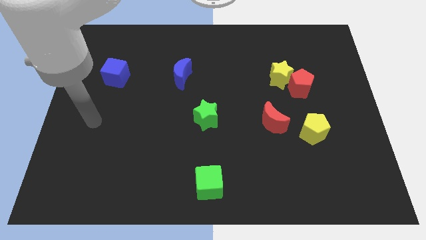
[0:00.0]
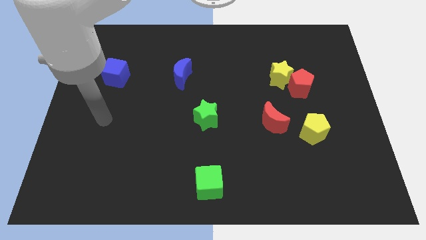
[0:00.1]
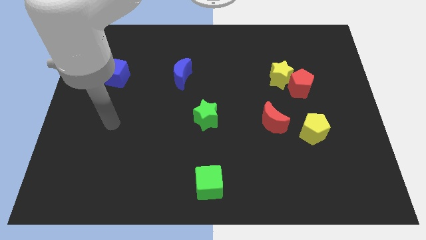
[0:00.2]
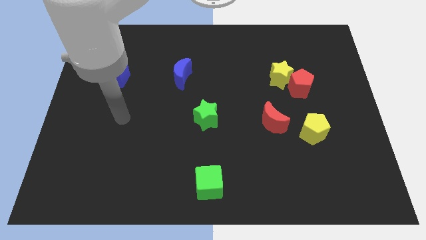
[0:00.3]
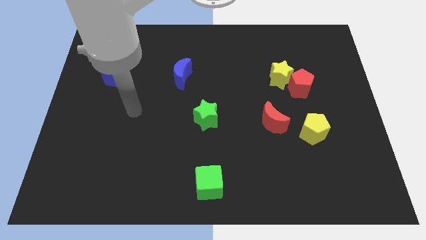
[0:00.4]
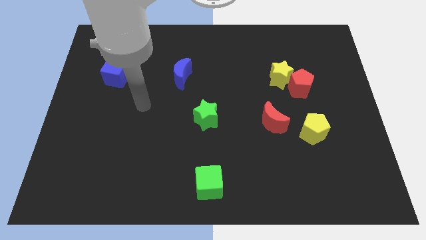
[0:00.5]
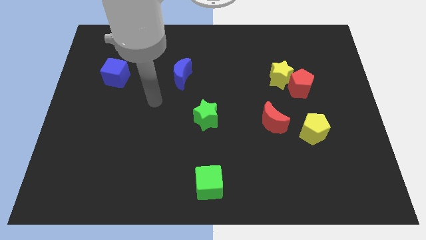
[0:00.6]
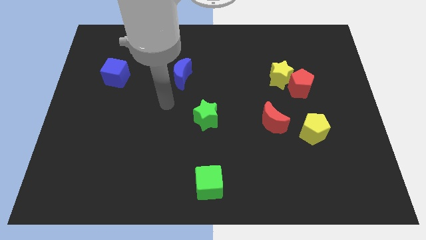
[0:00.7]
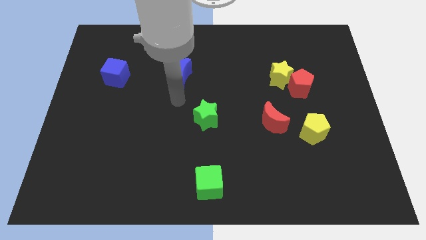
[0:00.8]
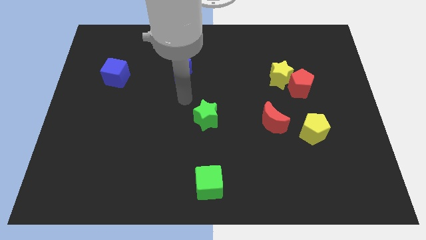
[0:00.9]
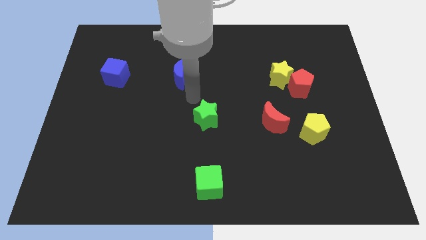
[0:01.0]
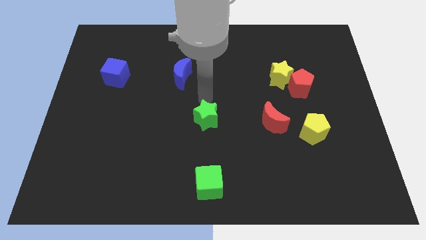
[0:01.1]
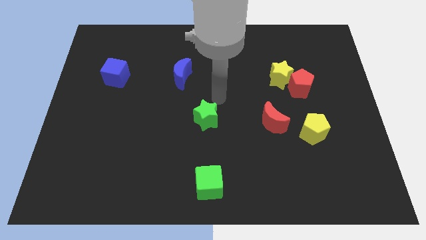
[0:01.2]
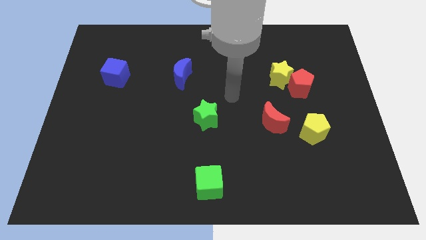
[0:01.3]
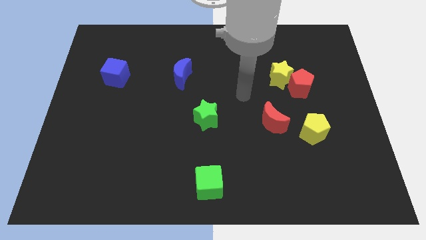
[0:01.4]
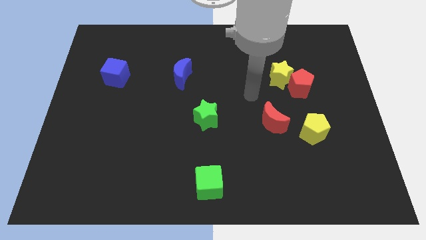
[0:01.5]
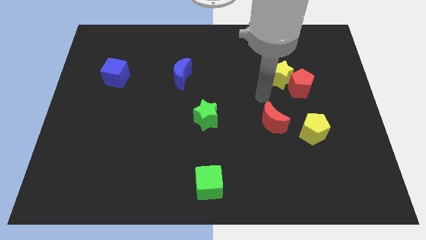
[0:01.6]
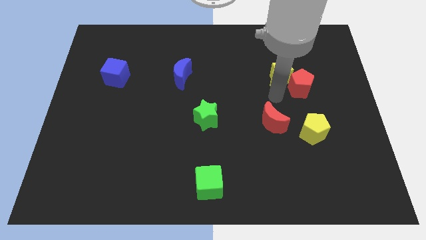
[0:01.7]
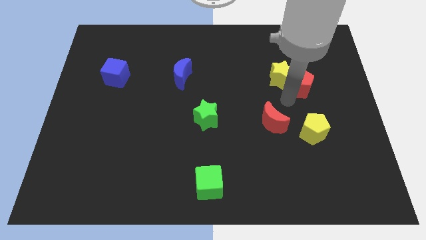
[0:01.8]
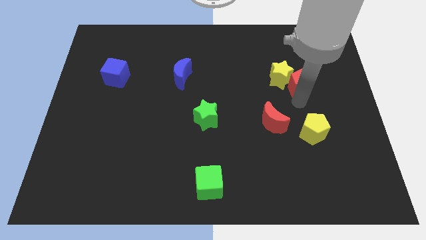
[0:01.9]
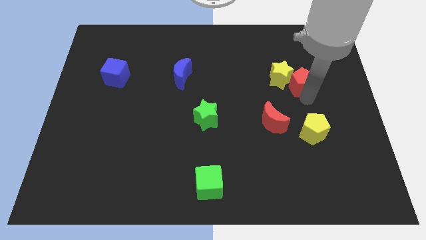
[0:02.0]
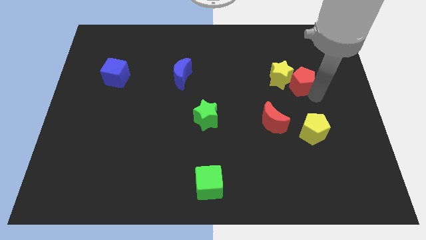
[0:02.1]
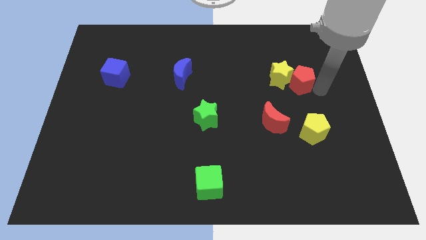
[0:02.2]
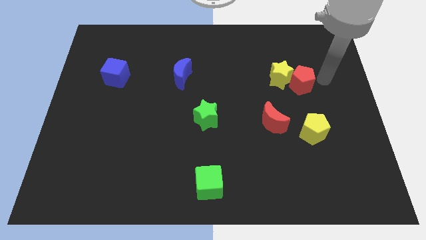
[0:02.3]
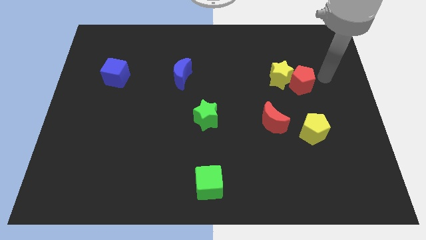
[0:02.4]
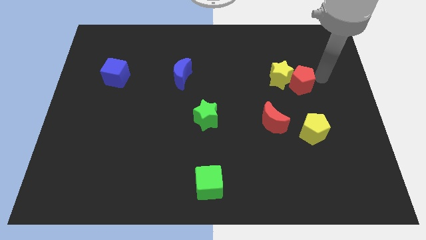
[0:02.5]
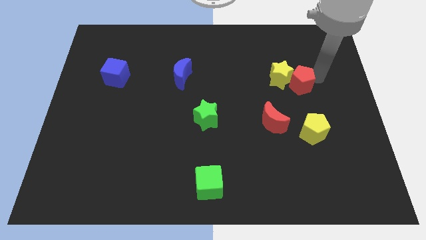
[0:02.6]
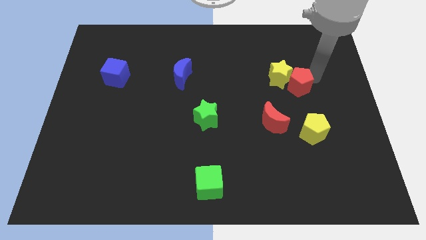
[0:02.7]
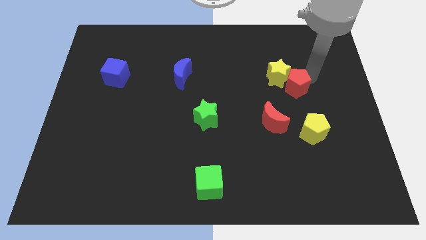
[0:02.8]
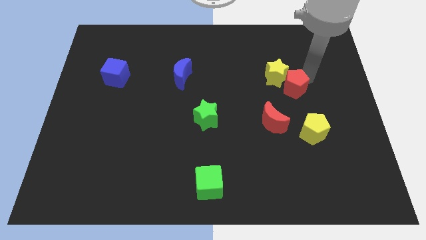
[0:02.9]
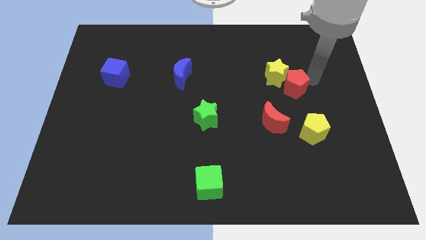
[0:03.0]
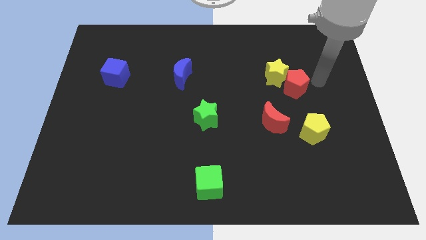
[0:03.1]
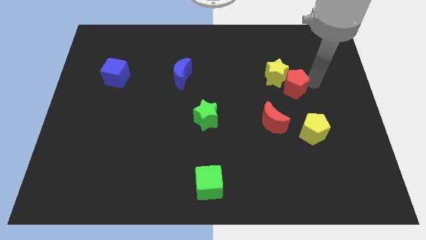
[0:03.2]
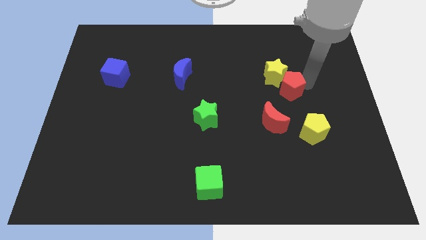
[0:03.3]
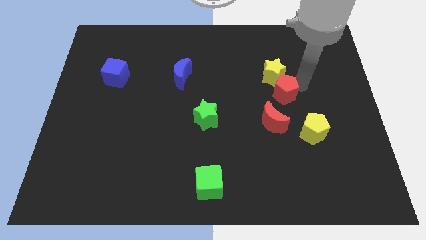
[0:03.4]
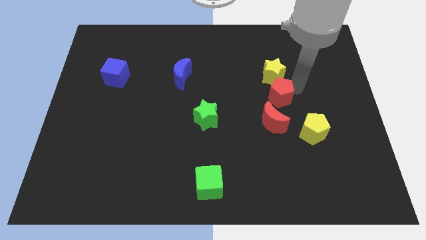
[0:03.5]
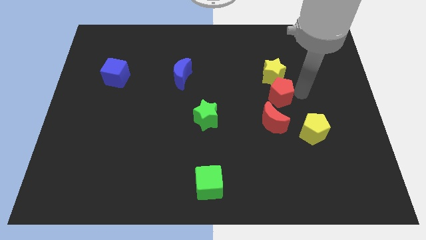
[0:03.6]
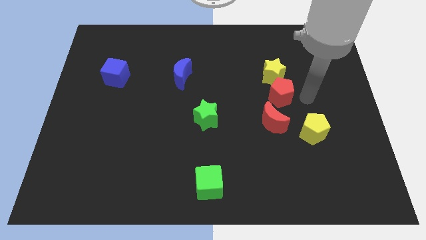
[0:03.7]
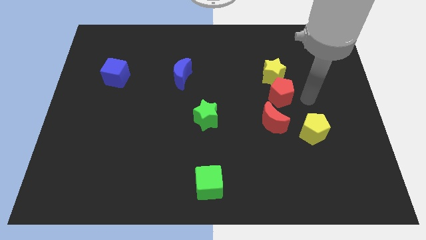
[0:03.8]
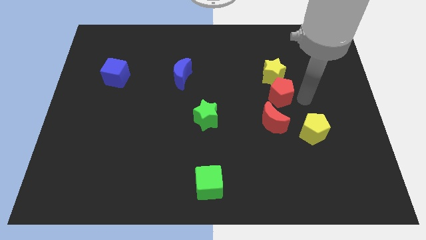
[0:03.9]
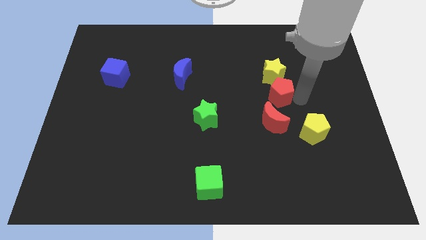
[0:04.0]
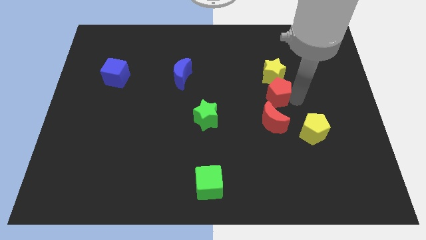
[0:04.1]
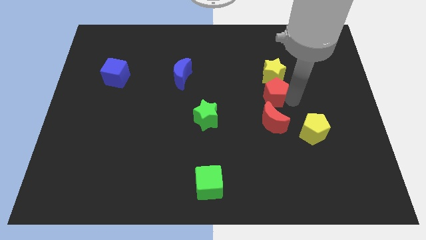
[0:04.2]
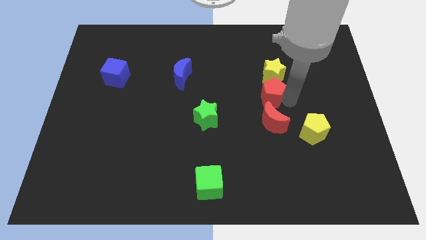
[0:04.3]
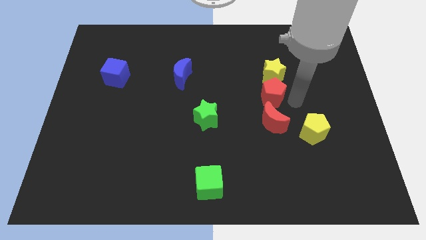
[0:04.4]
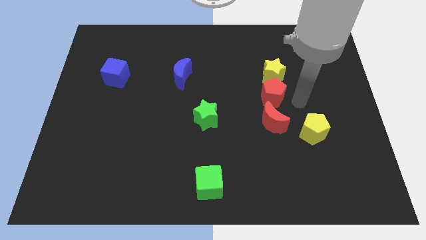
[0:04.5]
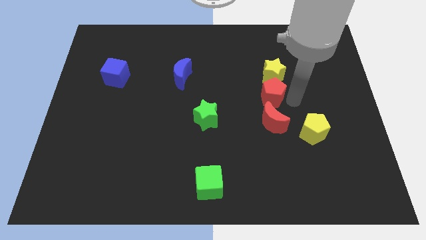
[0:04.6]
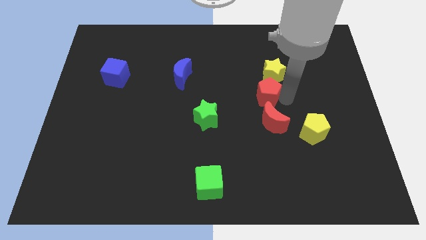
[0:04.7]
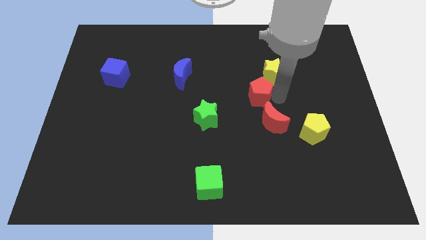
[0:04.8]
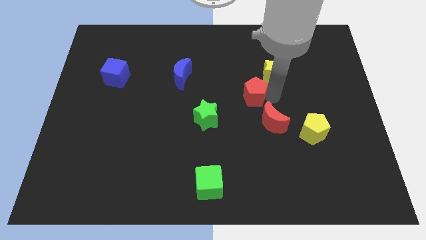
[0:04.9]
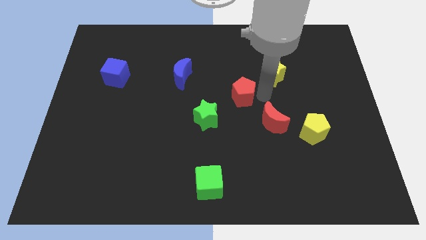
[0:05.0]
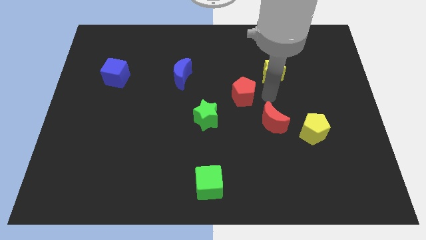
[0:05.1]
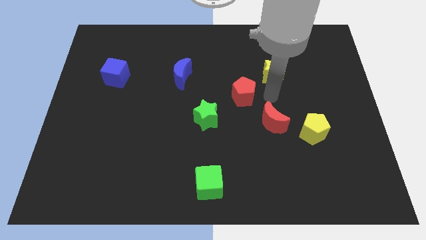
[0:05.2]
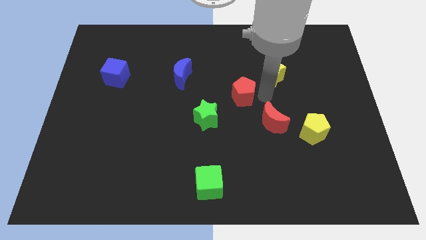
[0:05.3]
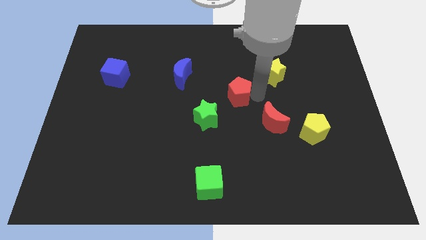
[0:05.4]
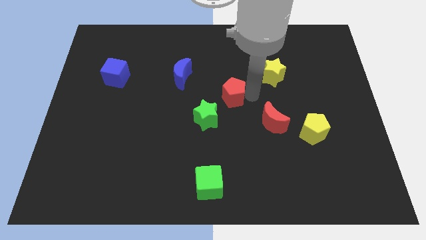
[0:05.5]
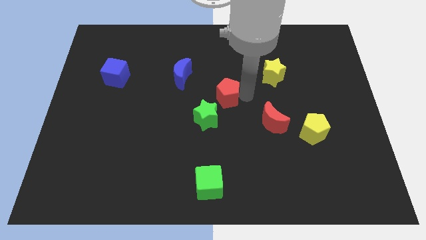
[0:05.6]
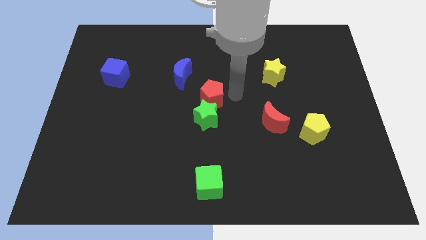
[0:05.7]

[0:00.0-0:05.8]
slide the red pentagon to the top left of the green star

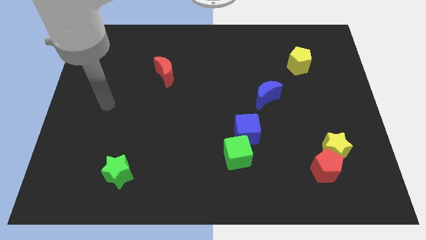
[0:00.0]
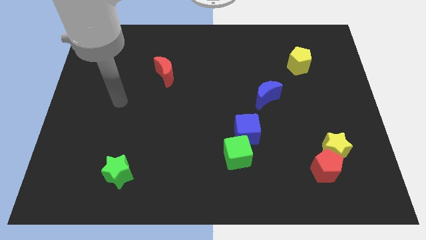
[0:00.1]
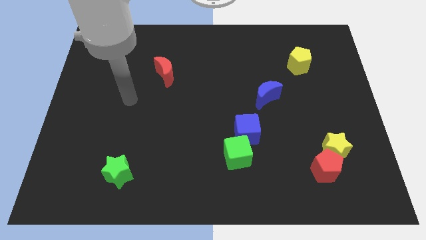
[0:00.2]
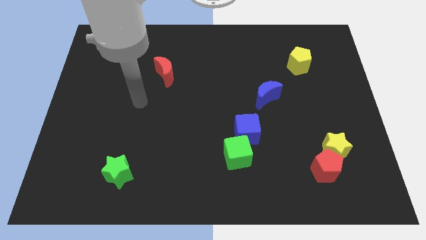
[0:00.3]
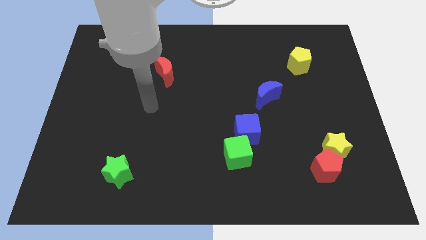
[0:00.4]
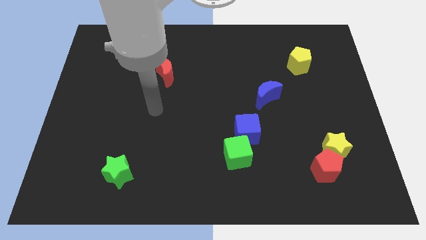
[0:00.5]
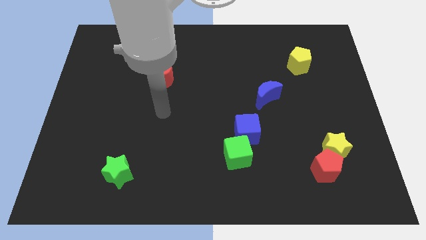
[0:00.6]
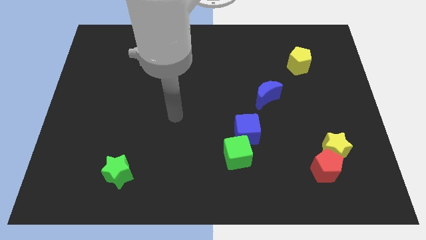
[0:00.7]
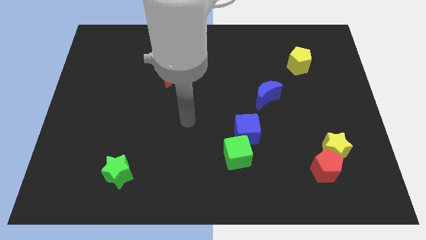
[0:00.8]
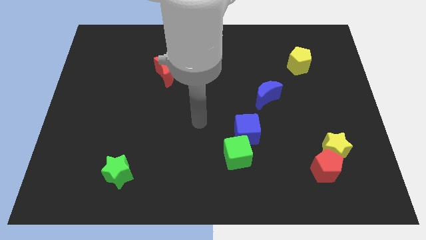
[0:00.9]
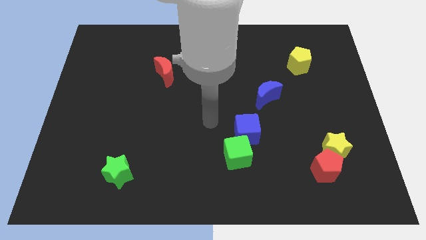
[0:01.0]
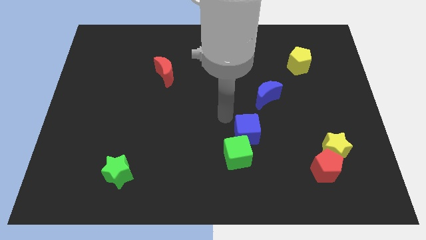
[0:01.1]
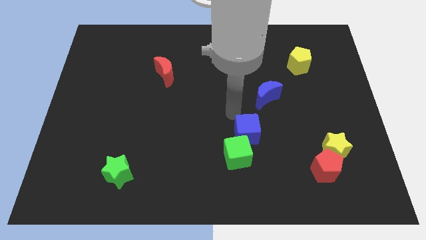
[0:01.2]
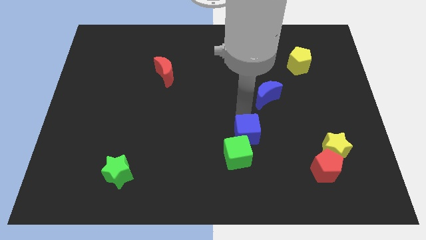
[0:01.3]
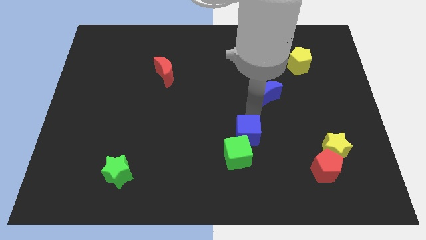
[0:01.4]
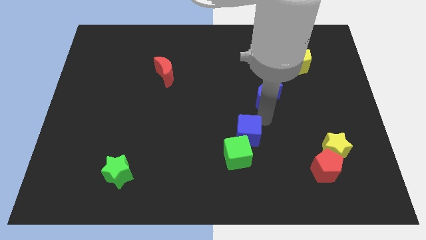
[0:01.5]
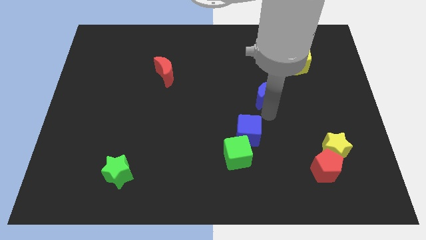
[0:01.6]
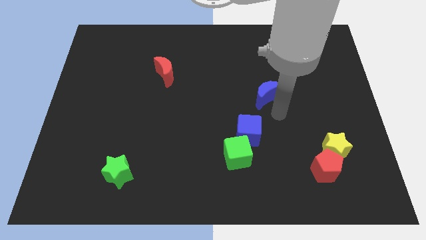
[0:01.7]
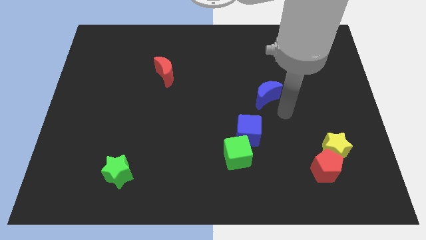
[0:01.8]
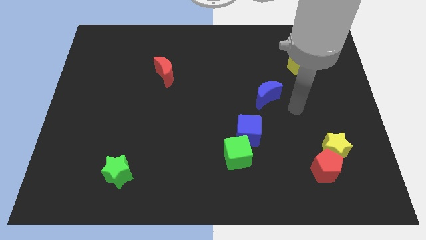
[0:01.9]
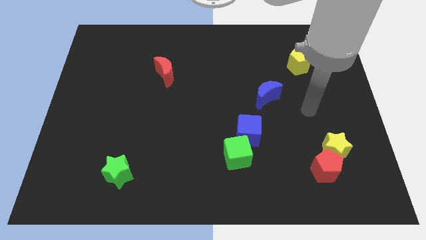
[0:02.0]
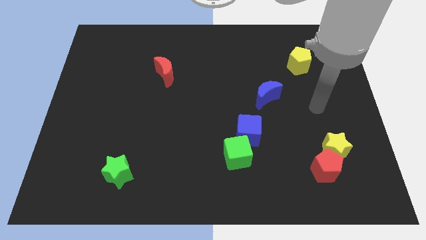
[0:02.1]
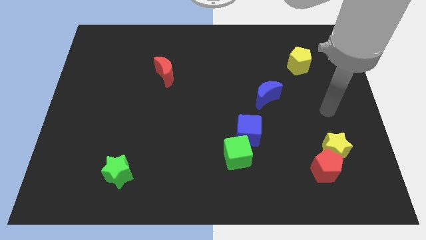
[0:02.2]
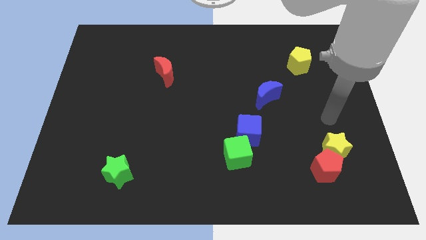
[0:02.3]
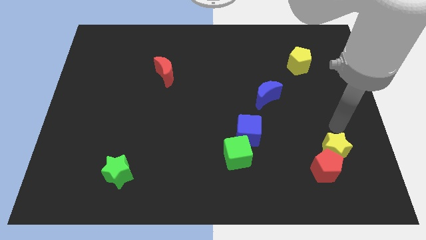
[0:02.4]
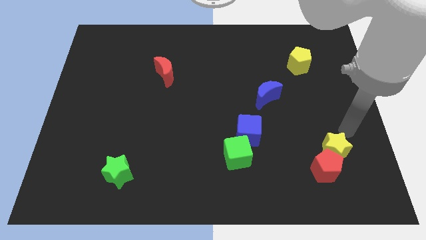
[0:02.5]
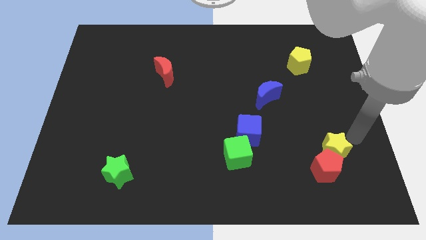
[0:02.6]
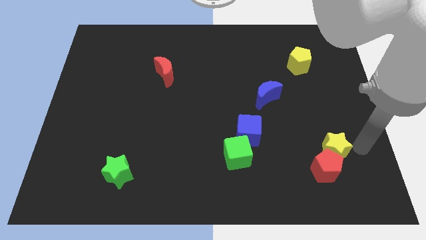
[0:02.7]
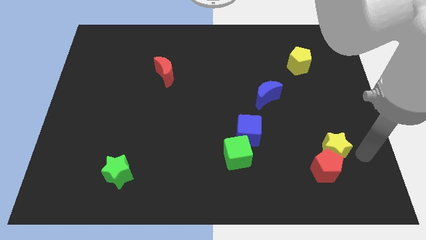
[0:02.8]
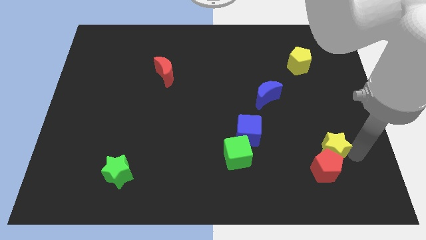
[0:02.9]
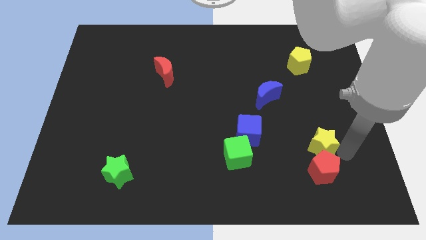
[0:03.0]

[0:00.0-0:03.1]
move the yellow star diagonally up and to the left of the red pentagon
